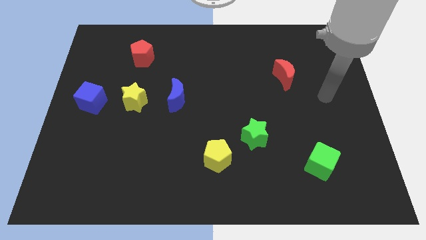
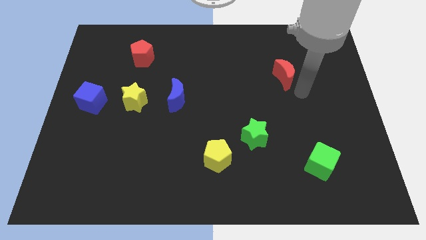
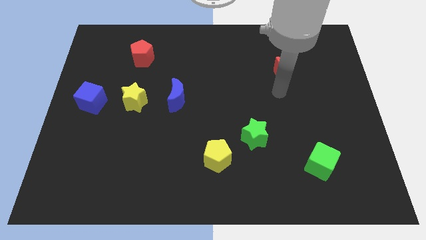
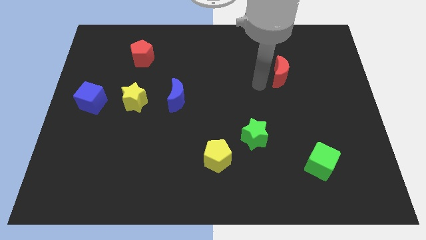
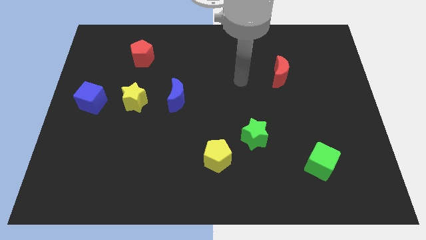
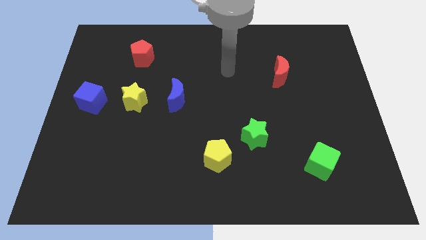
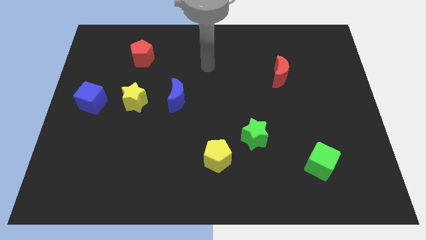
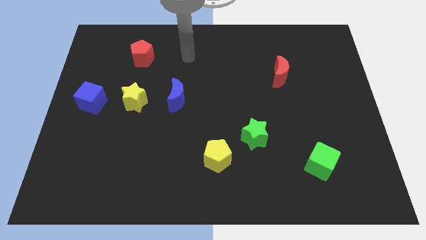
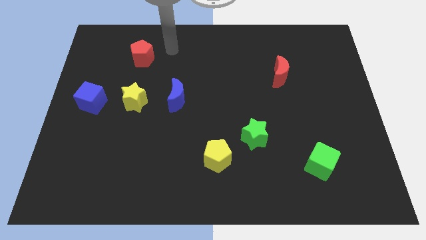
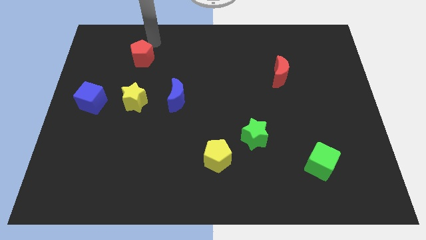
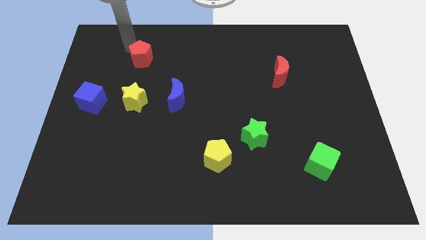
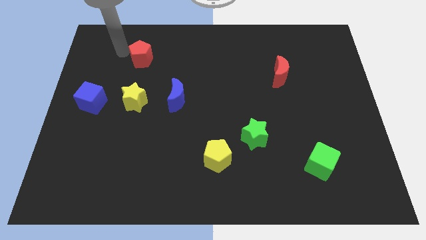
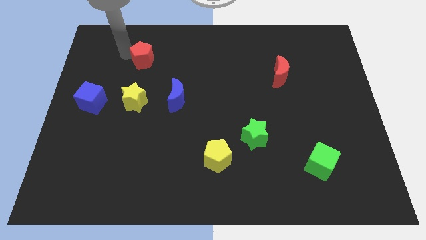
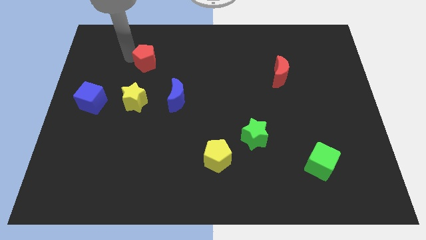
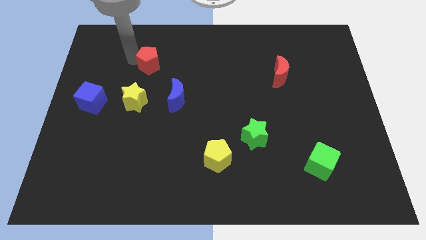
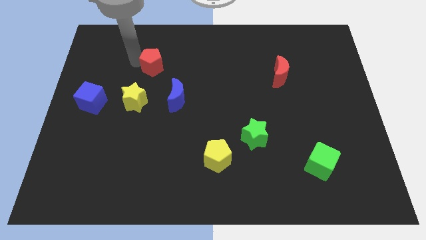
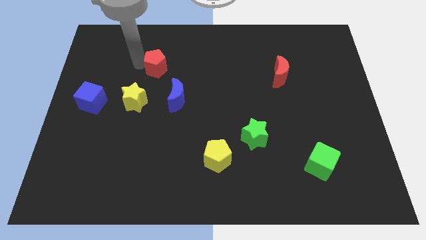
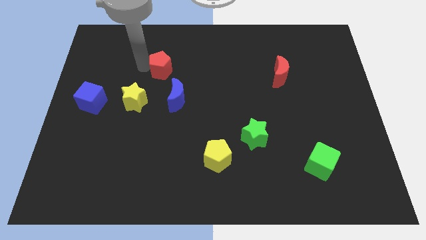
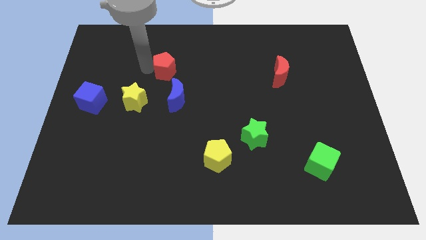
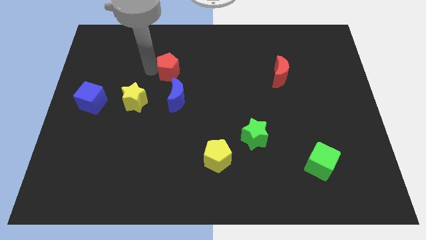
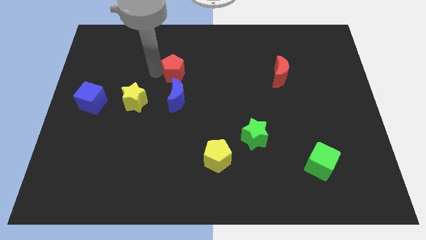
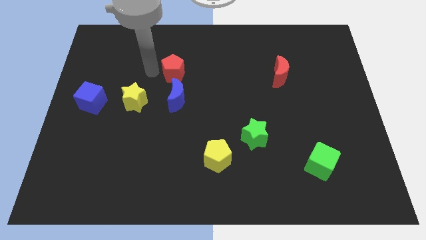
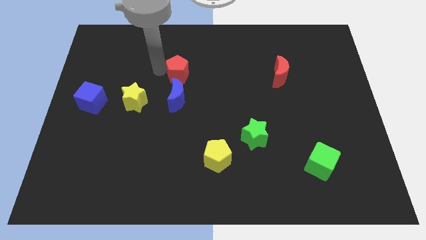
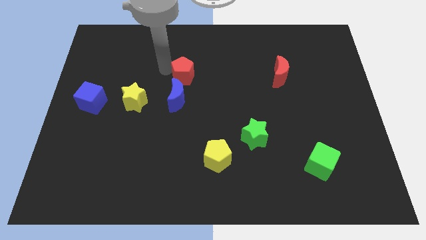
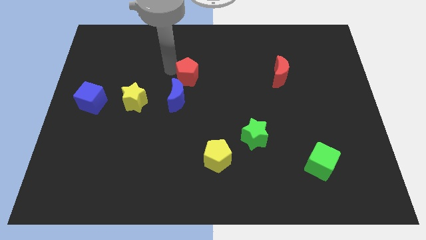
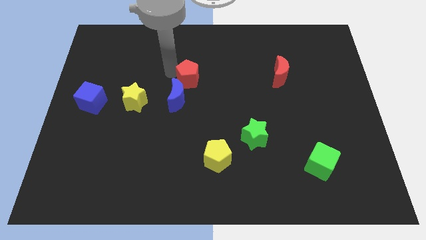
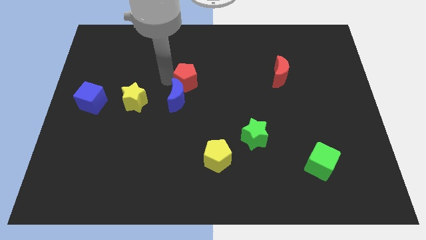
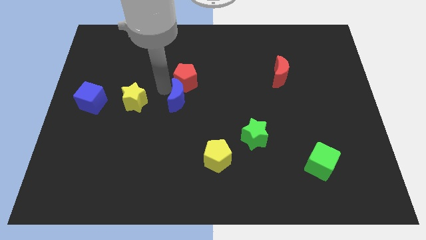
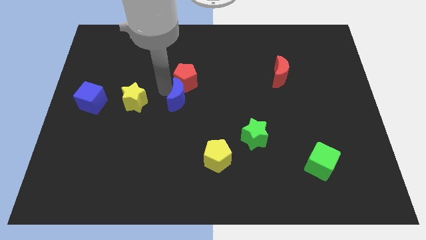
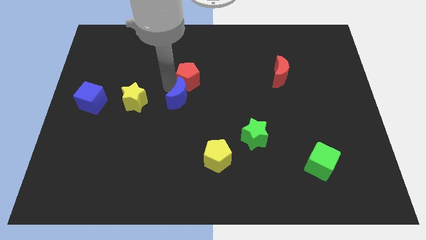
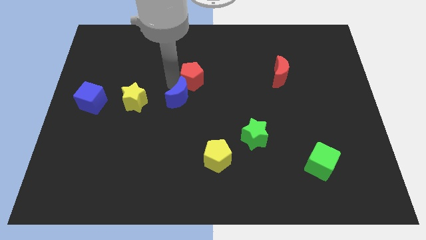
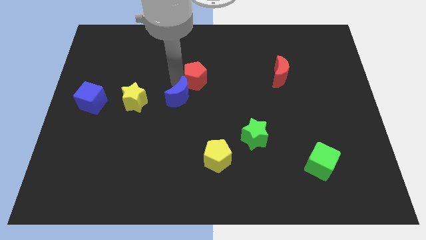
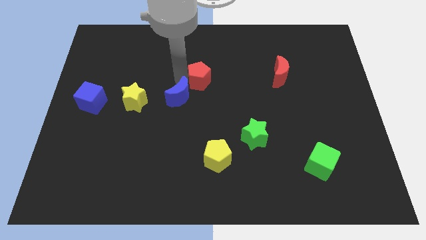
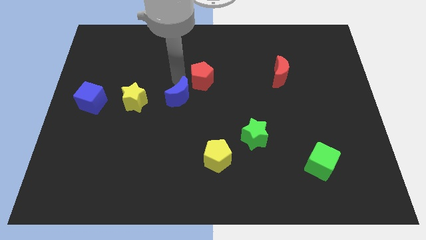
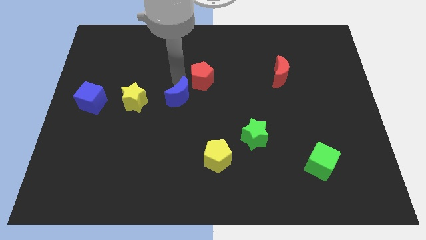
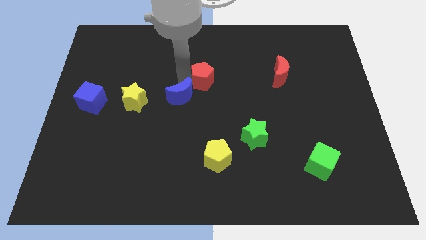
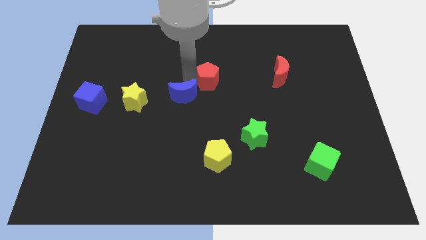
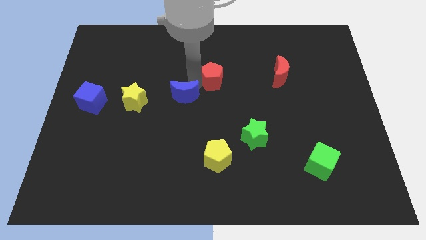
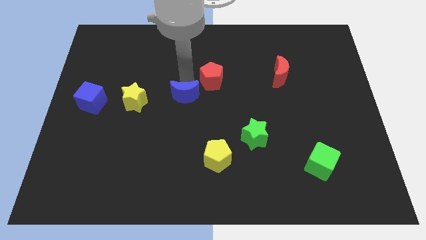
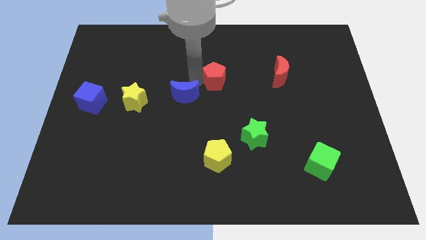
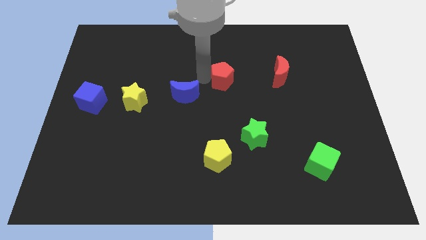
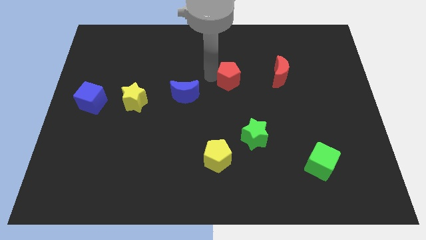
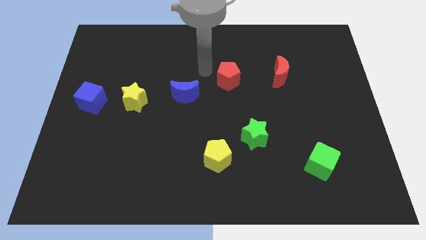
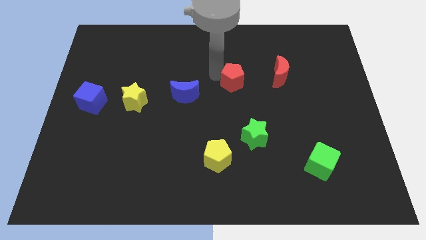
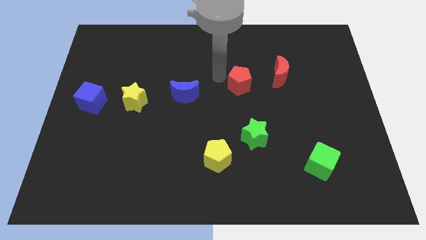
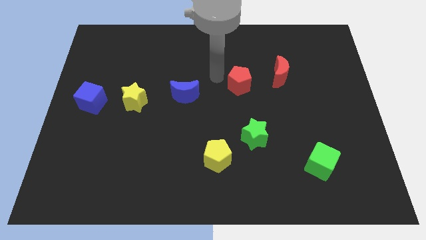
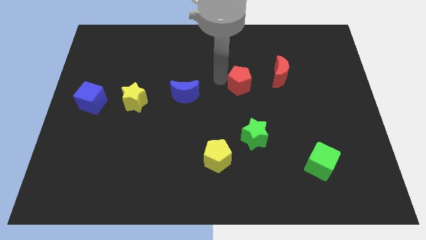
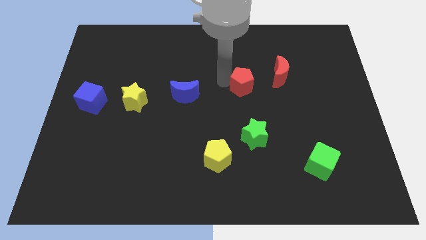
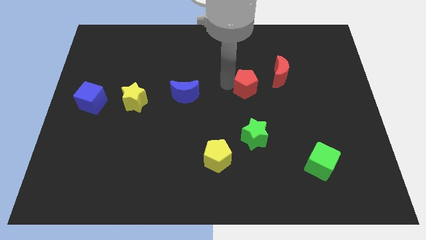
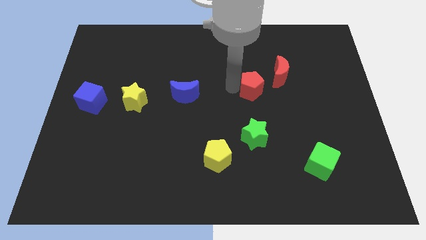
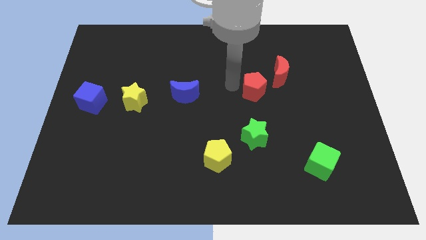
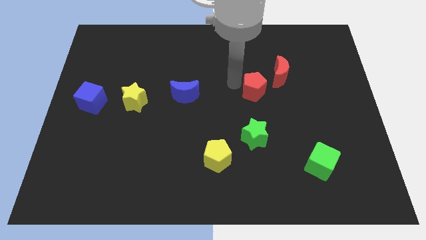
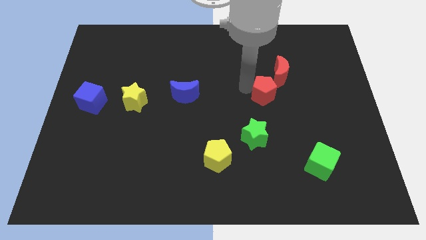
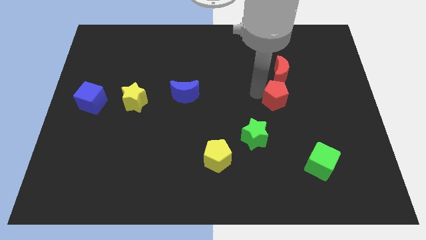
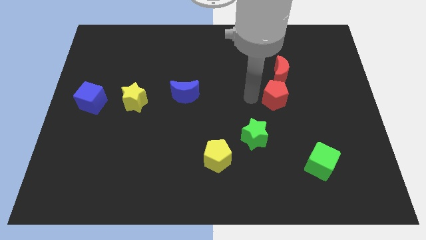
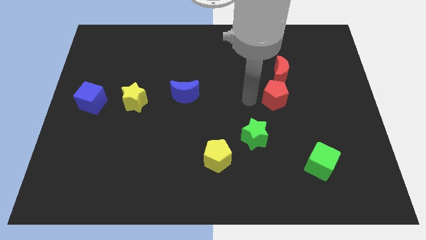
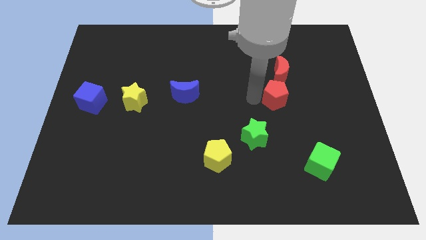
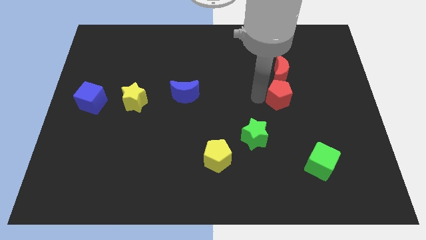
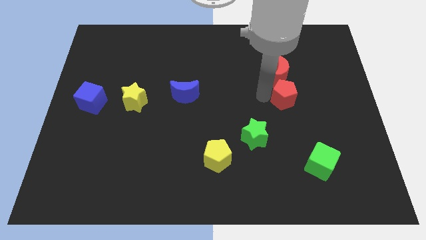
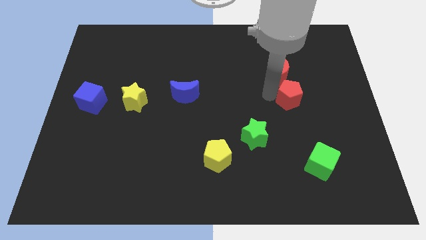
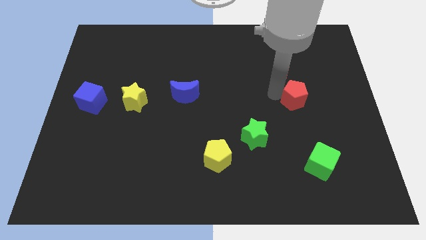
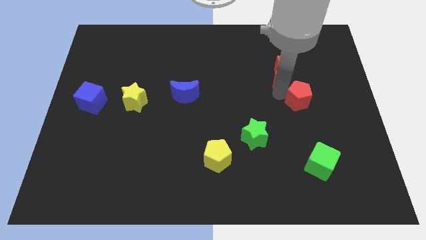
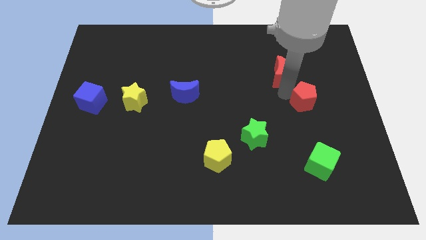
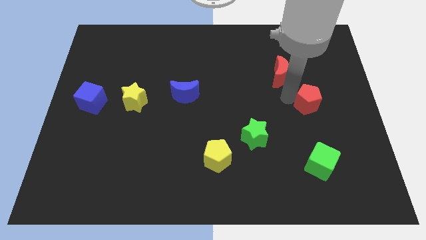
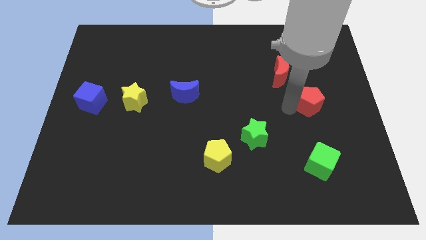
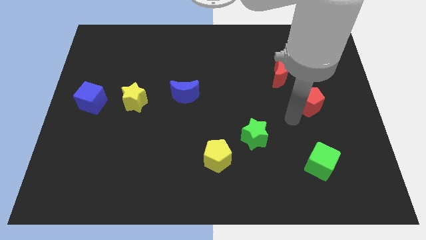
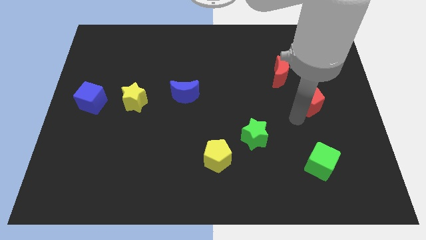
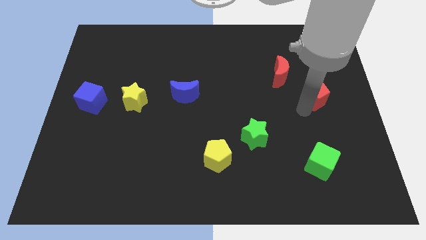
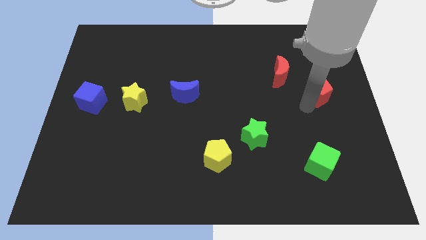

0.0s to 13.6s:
move the red pentagon to the right side
